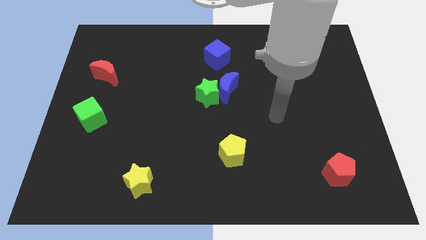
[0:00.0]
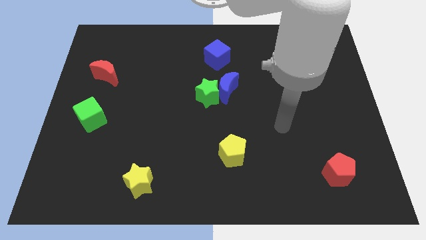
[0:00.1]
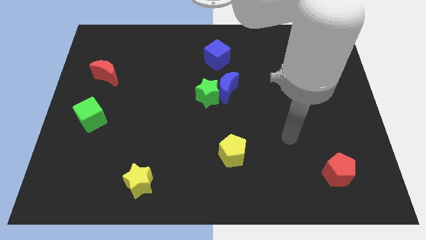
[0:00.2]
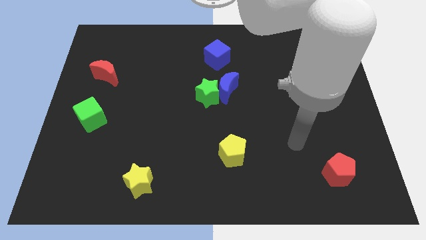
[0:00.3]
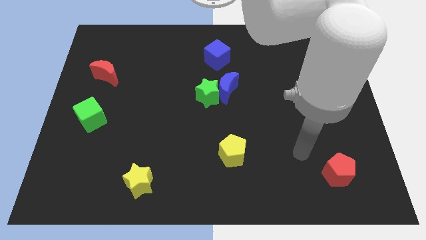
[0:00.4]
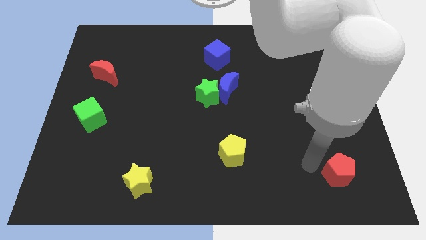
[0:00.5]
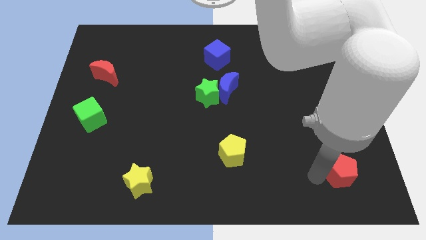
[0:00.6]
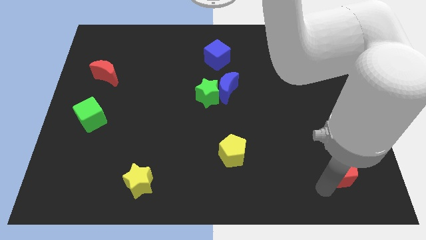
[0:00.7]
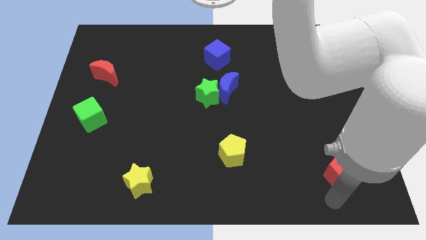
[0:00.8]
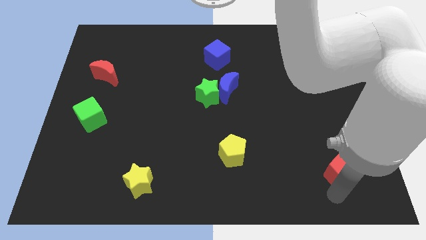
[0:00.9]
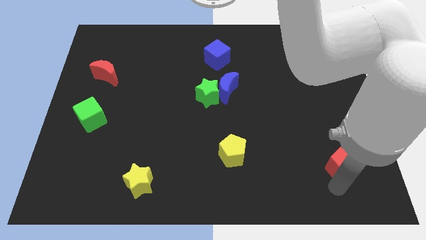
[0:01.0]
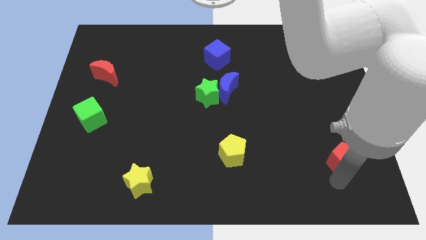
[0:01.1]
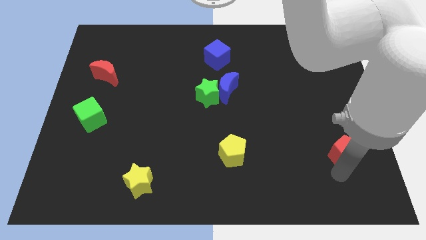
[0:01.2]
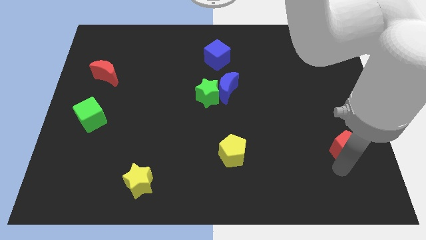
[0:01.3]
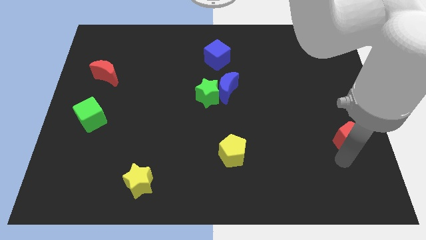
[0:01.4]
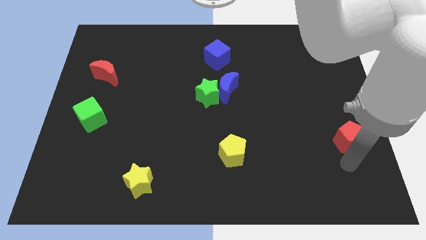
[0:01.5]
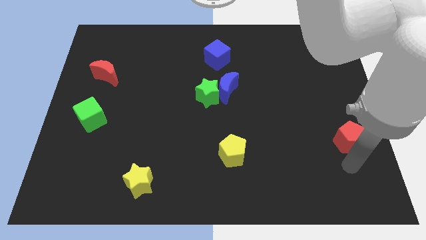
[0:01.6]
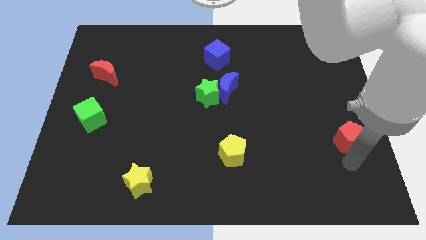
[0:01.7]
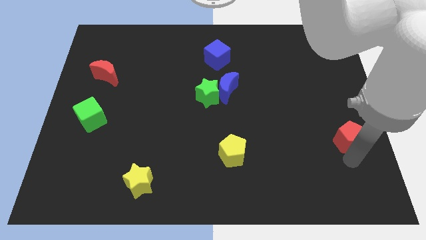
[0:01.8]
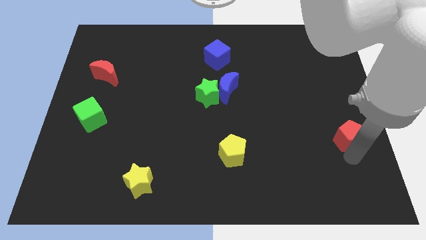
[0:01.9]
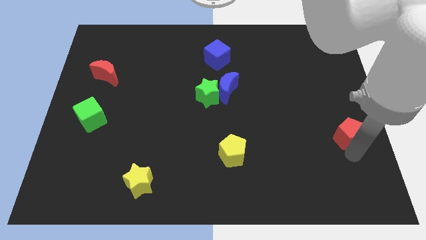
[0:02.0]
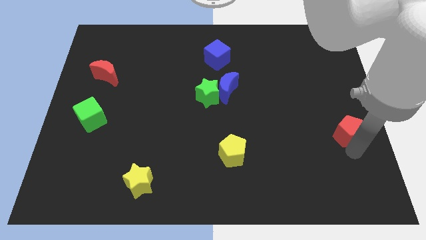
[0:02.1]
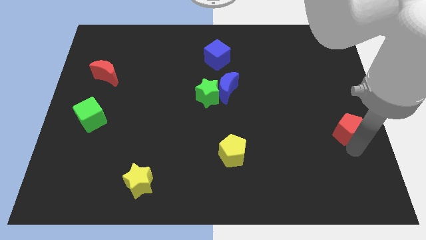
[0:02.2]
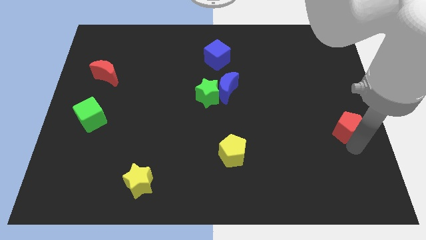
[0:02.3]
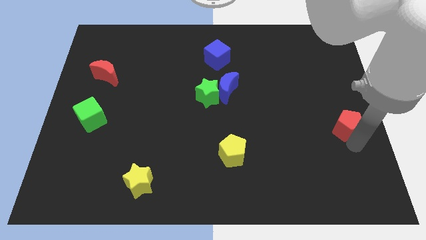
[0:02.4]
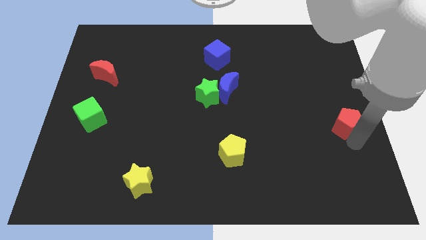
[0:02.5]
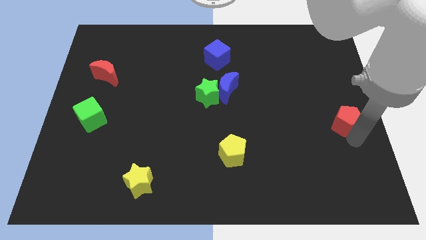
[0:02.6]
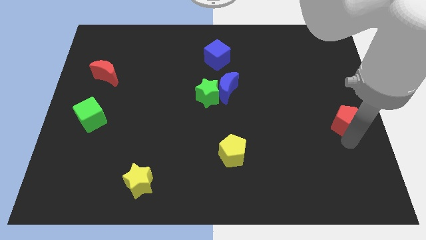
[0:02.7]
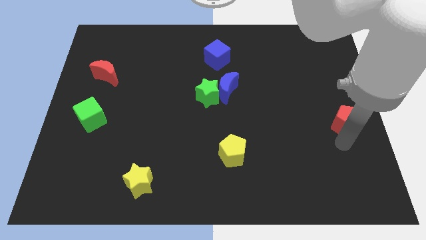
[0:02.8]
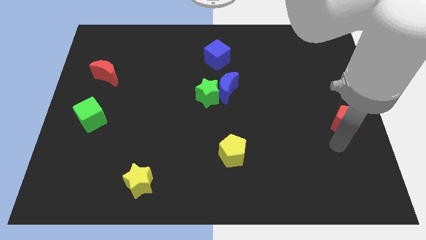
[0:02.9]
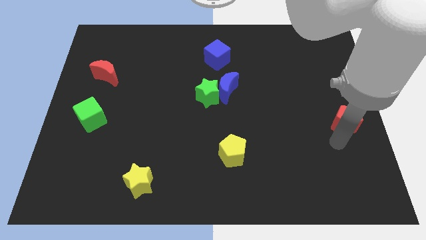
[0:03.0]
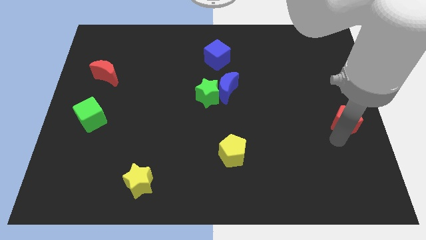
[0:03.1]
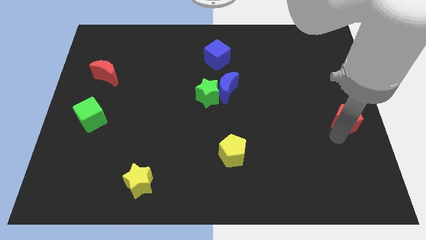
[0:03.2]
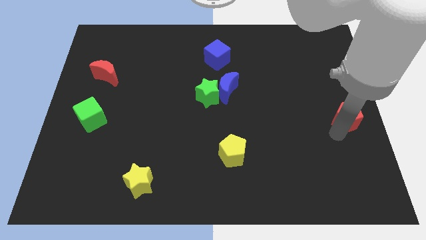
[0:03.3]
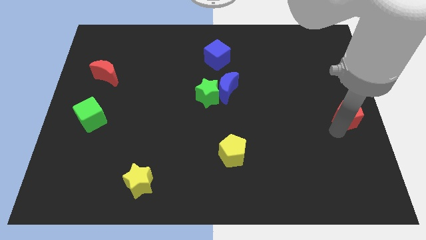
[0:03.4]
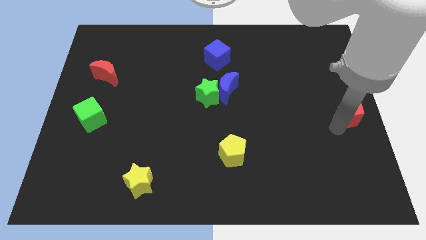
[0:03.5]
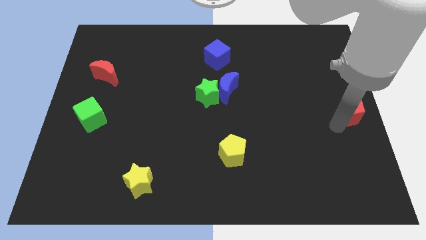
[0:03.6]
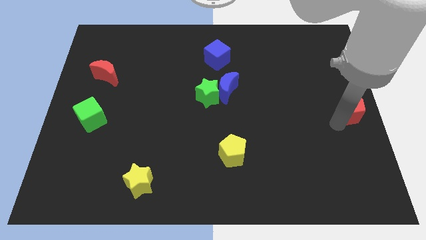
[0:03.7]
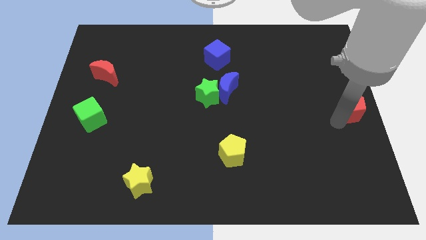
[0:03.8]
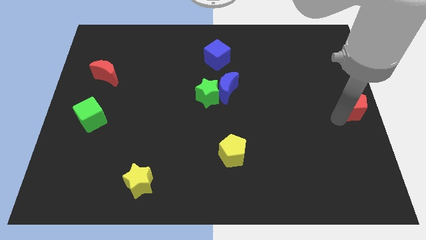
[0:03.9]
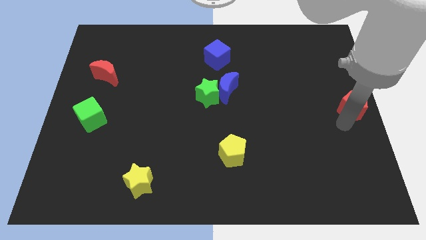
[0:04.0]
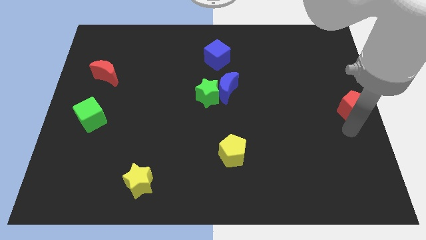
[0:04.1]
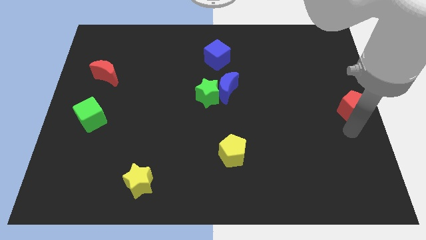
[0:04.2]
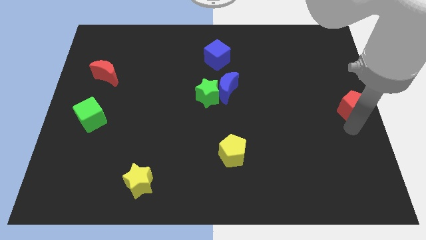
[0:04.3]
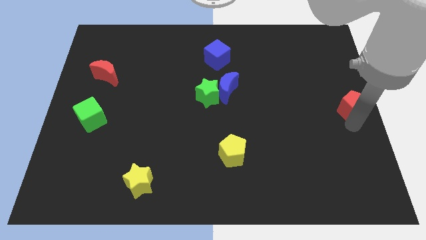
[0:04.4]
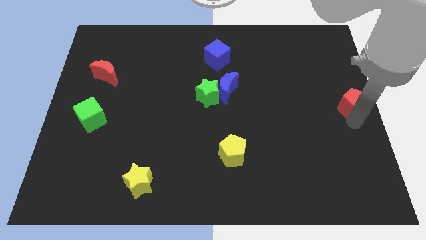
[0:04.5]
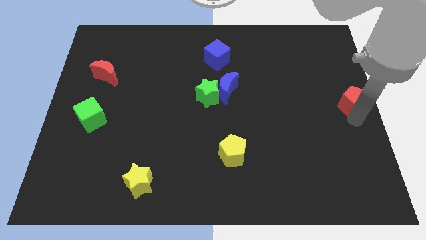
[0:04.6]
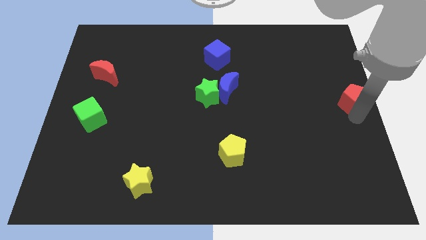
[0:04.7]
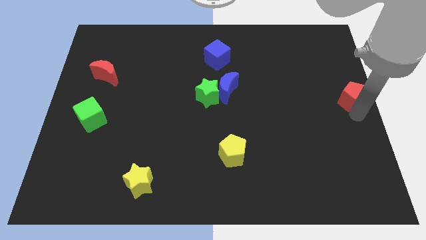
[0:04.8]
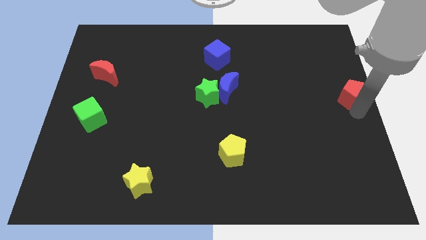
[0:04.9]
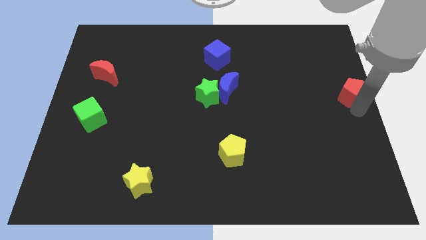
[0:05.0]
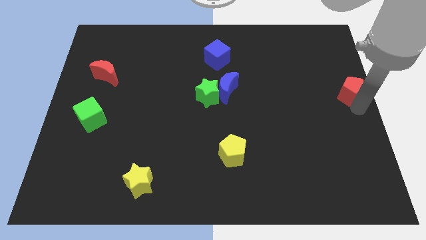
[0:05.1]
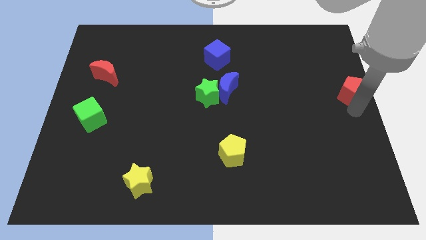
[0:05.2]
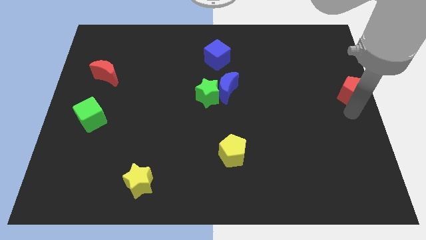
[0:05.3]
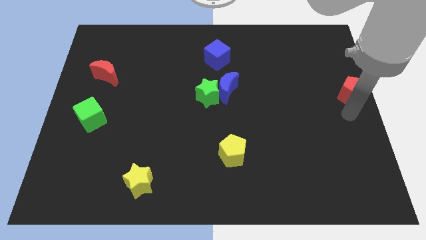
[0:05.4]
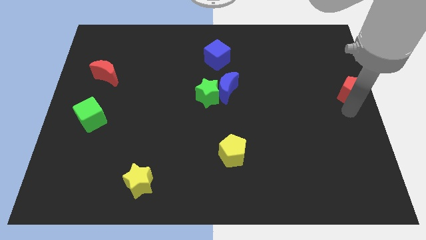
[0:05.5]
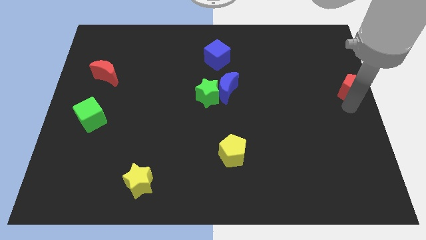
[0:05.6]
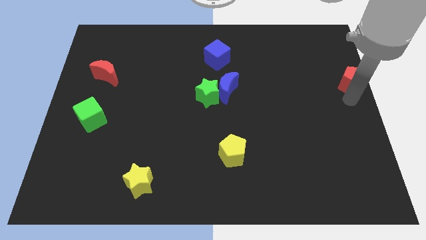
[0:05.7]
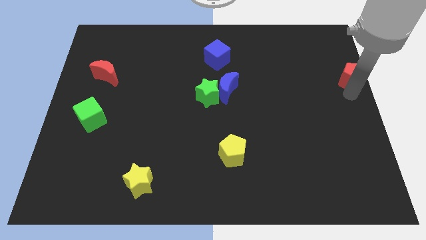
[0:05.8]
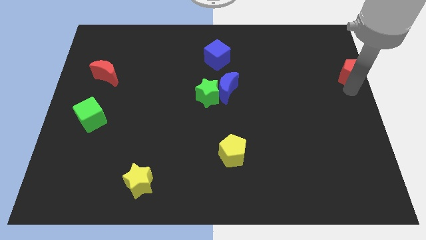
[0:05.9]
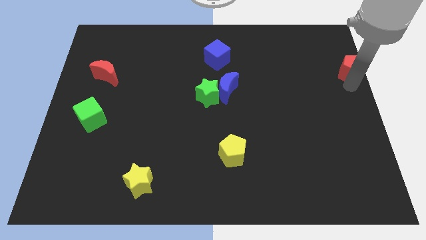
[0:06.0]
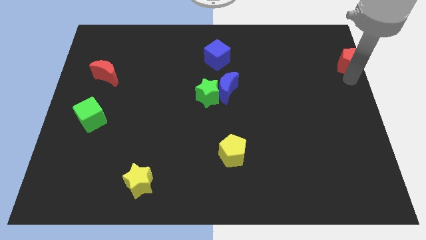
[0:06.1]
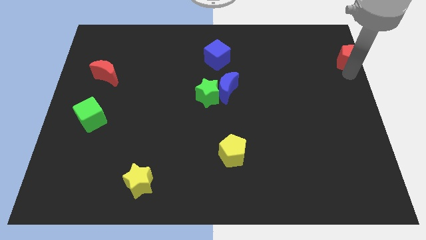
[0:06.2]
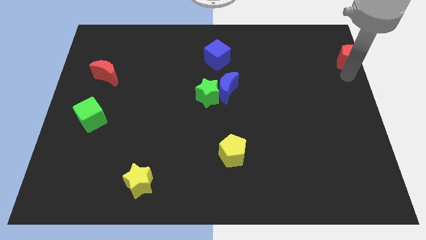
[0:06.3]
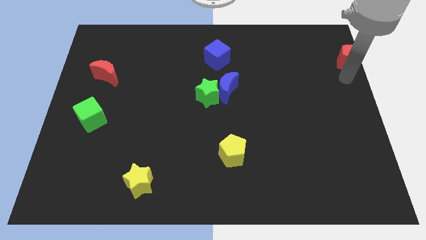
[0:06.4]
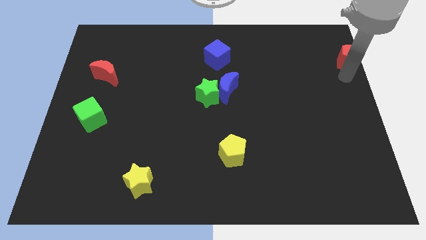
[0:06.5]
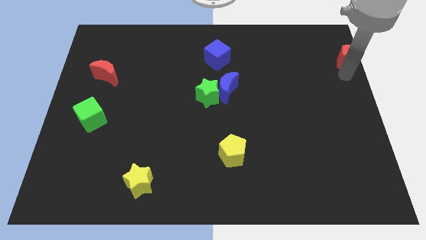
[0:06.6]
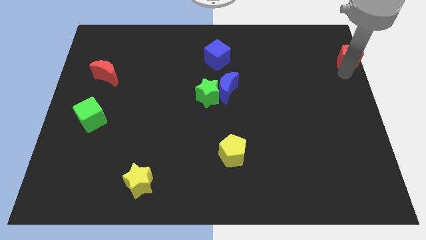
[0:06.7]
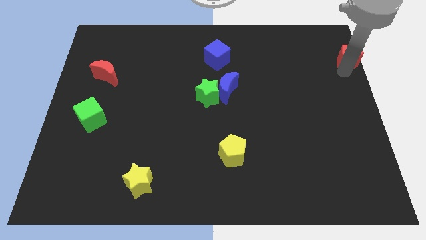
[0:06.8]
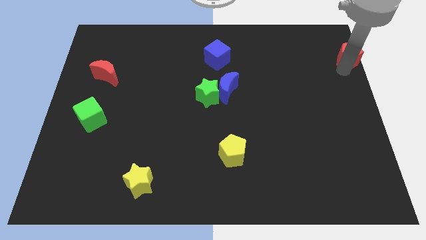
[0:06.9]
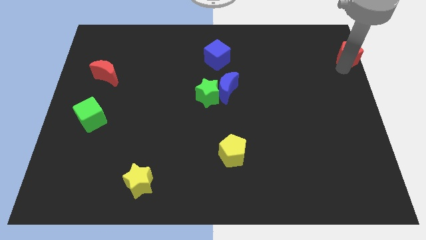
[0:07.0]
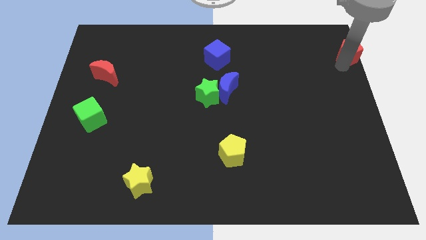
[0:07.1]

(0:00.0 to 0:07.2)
slide the red pentagon to the top right

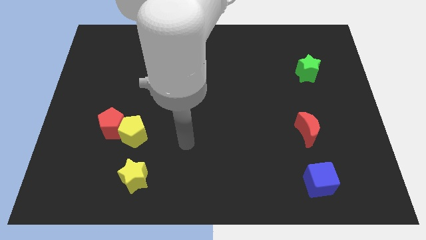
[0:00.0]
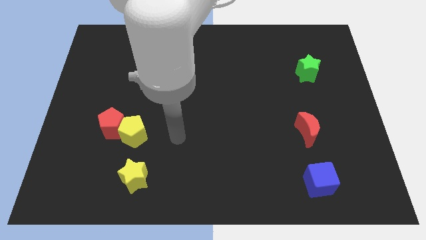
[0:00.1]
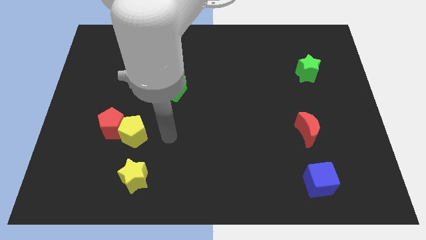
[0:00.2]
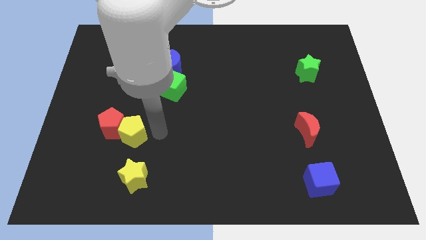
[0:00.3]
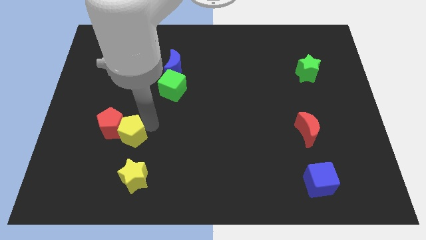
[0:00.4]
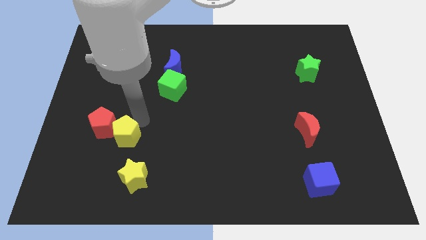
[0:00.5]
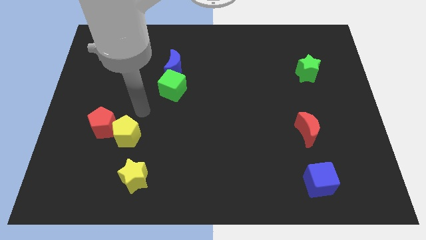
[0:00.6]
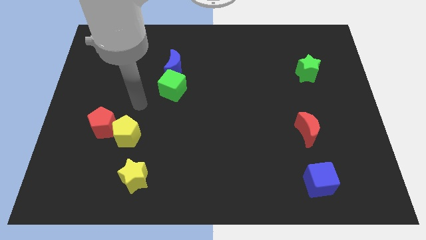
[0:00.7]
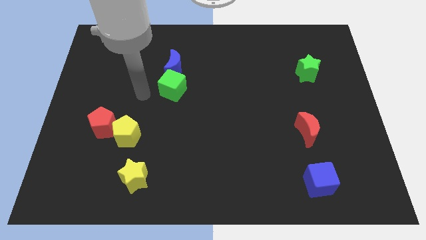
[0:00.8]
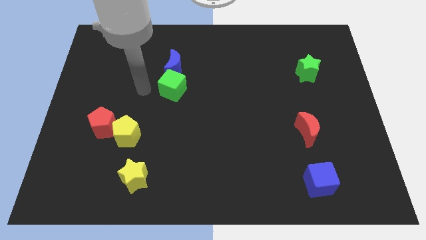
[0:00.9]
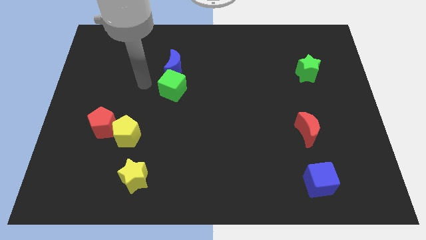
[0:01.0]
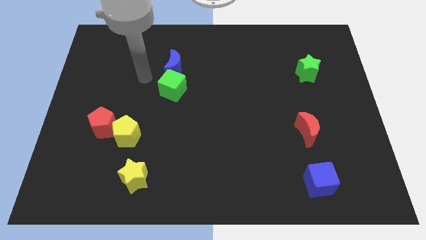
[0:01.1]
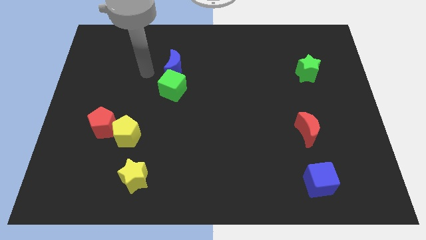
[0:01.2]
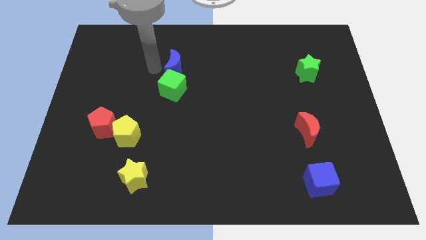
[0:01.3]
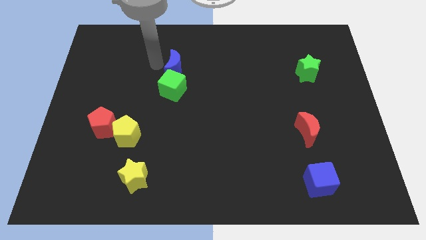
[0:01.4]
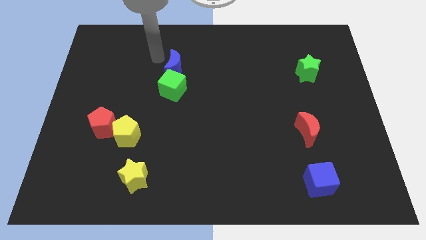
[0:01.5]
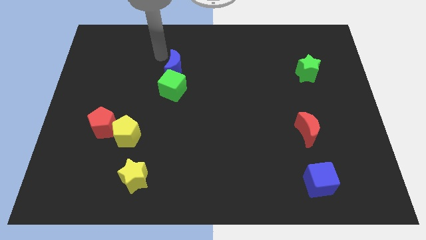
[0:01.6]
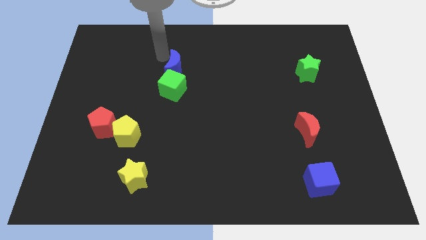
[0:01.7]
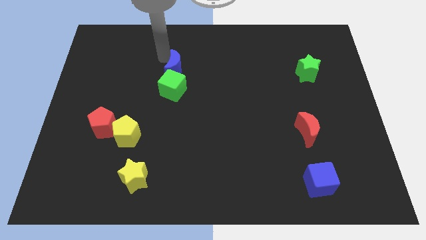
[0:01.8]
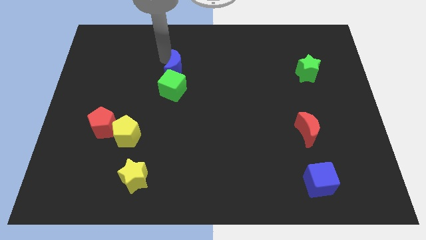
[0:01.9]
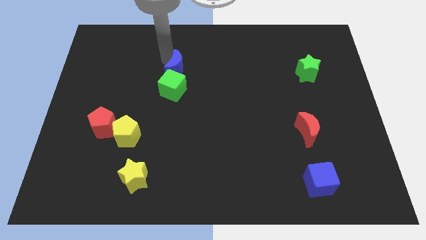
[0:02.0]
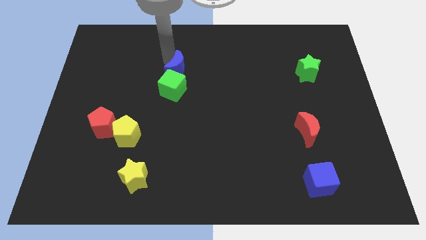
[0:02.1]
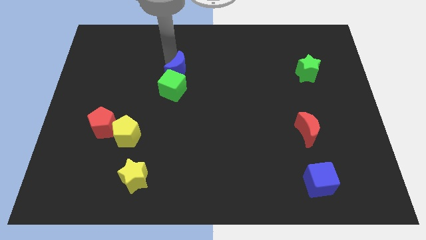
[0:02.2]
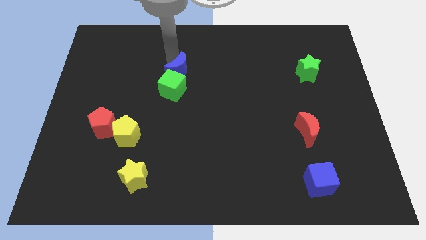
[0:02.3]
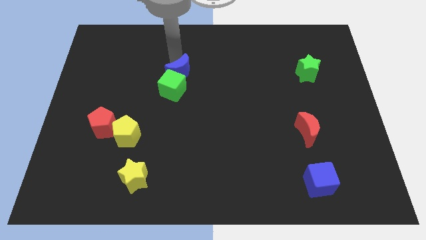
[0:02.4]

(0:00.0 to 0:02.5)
put the blue moon to the middle of the board
